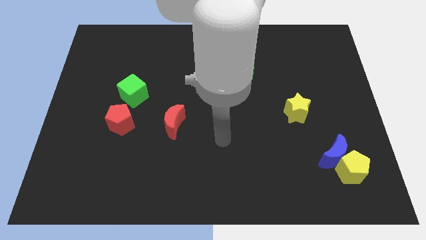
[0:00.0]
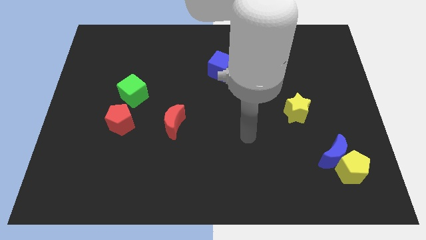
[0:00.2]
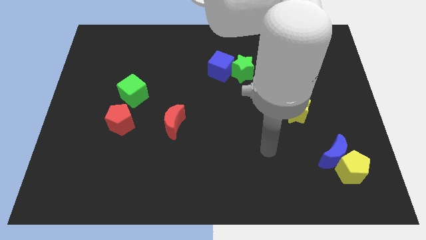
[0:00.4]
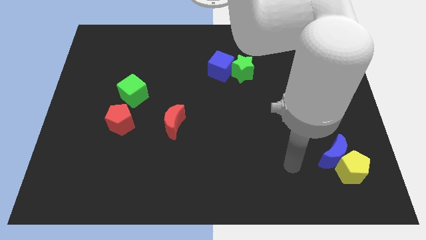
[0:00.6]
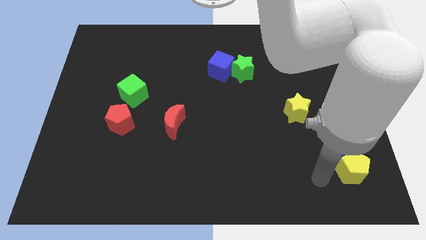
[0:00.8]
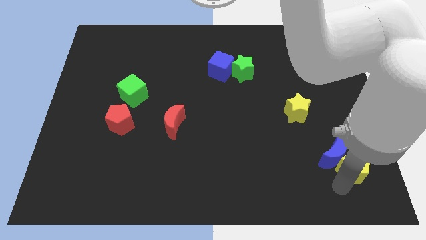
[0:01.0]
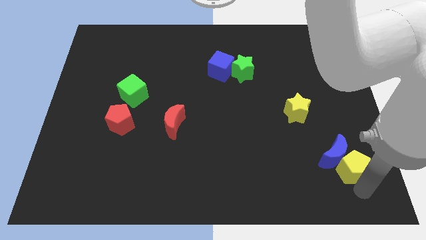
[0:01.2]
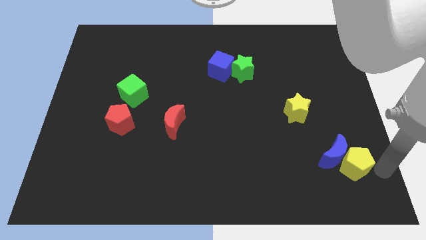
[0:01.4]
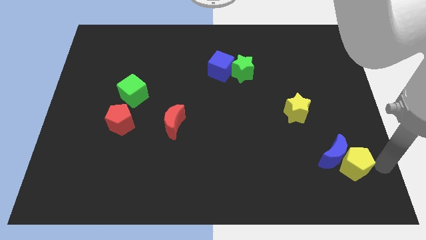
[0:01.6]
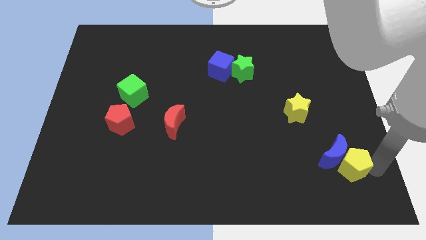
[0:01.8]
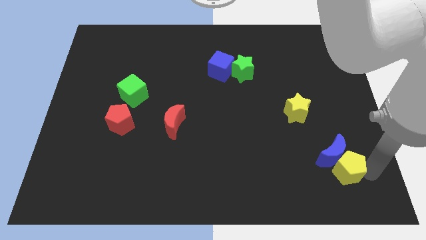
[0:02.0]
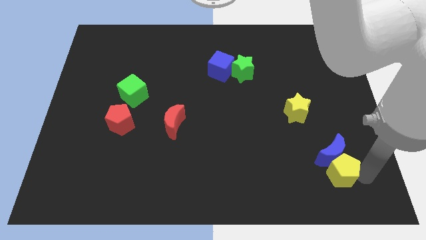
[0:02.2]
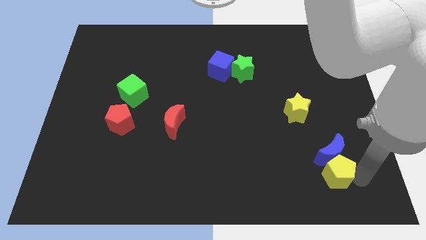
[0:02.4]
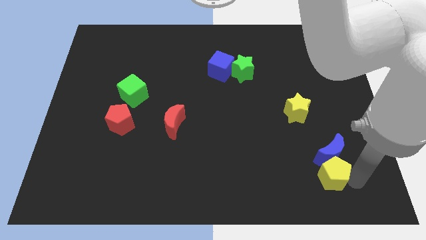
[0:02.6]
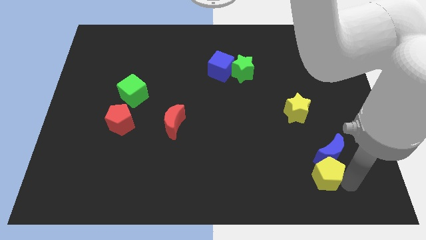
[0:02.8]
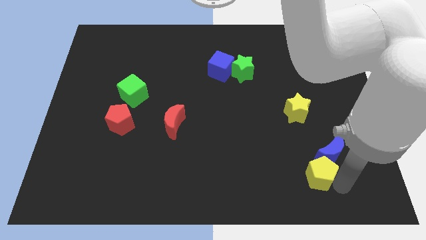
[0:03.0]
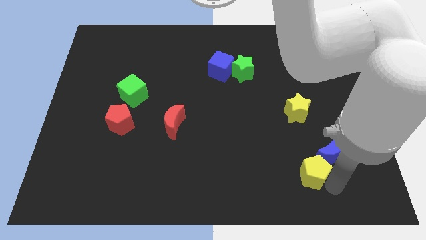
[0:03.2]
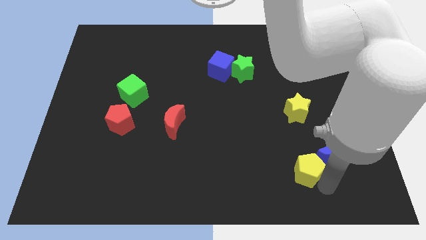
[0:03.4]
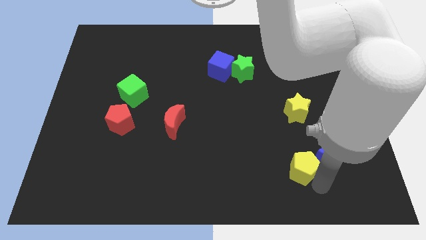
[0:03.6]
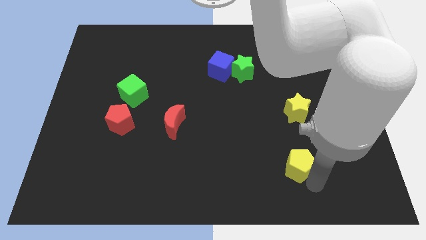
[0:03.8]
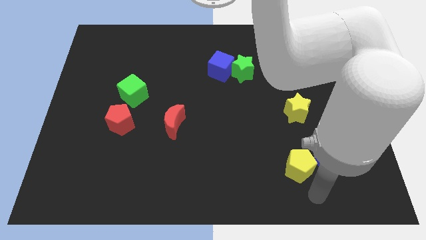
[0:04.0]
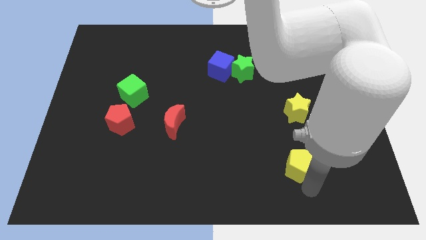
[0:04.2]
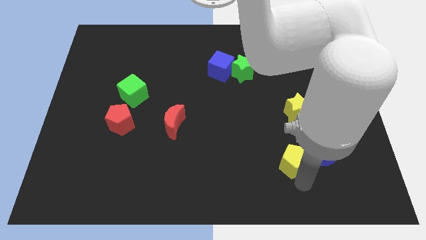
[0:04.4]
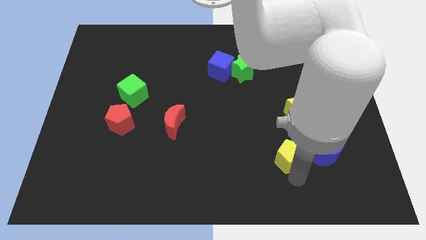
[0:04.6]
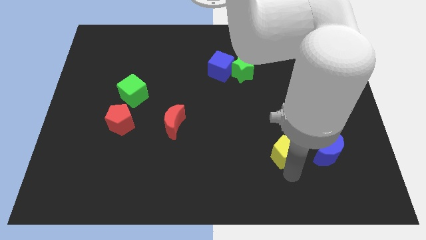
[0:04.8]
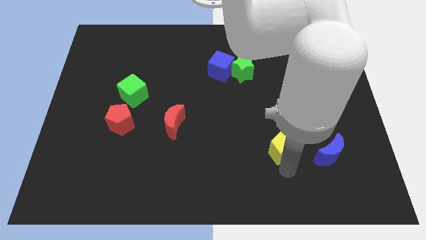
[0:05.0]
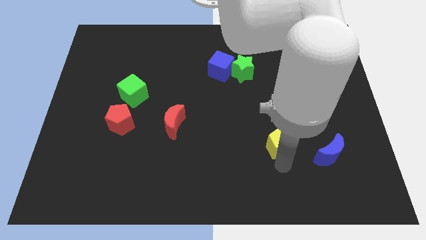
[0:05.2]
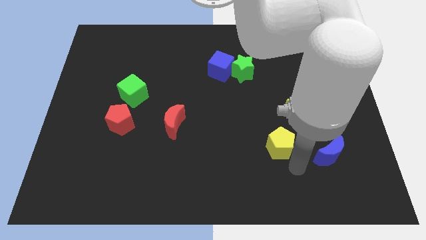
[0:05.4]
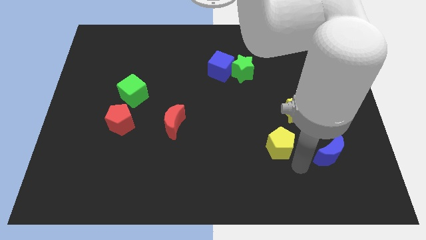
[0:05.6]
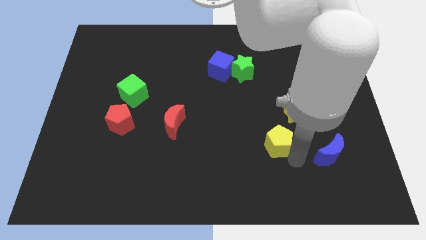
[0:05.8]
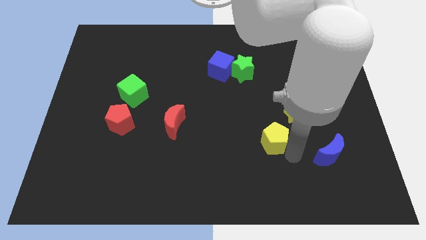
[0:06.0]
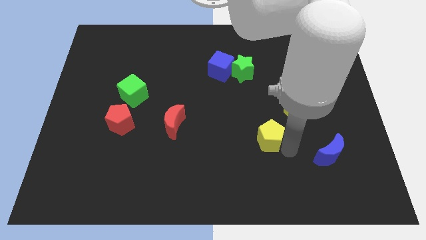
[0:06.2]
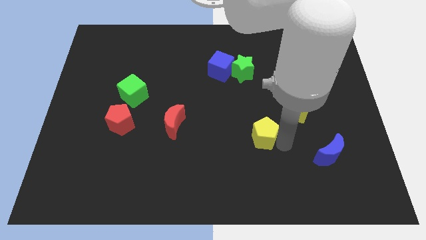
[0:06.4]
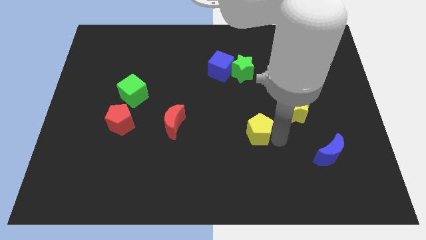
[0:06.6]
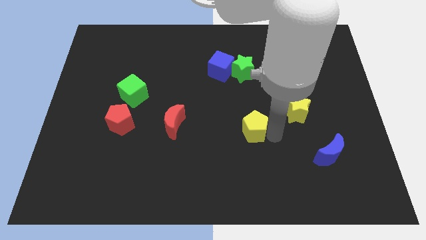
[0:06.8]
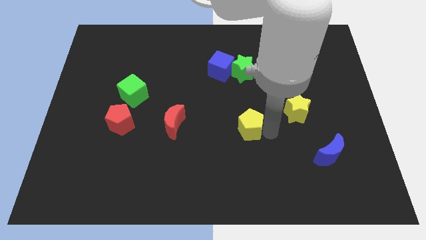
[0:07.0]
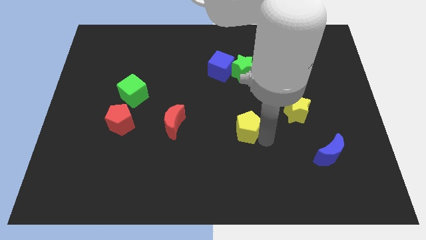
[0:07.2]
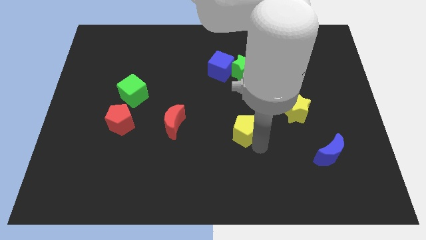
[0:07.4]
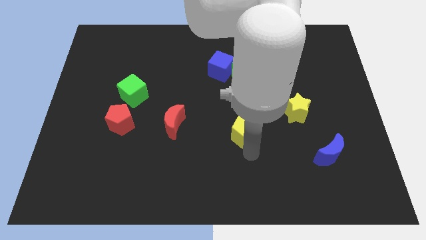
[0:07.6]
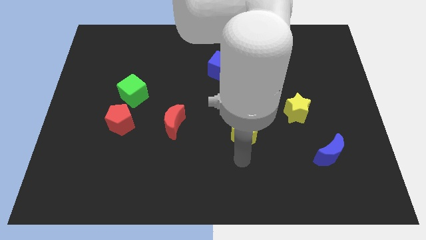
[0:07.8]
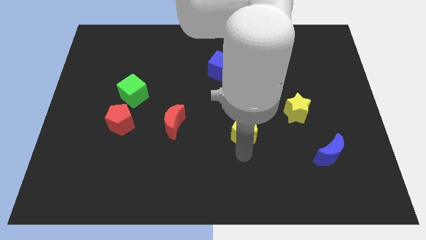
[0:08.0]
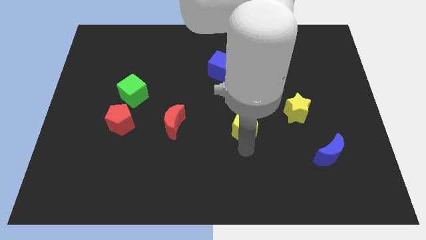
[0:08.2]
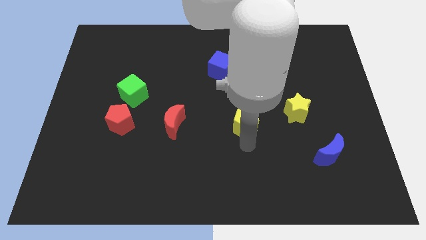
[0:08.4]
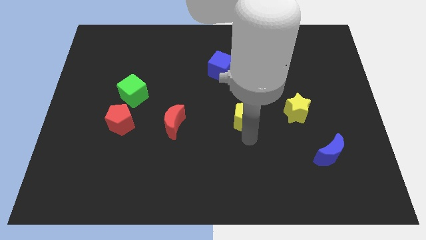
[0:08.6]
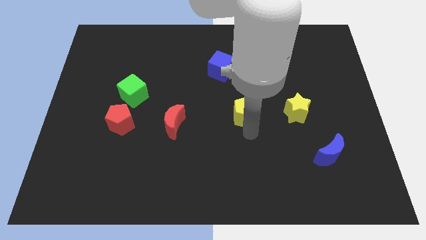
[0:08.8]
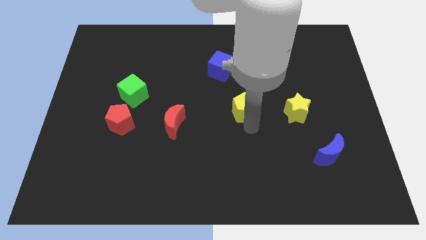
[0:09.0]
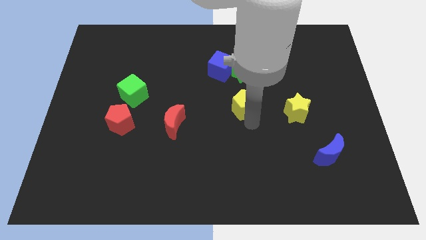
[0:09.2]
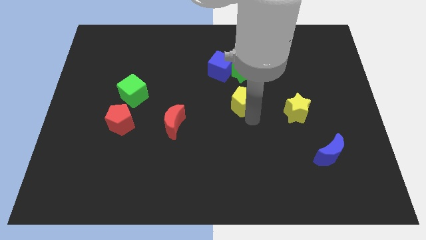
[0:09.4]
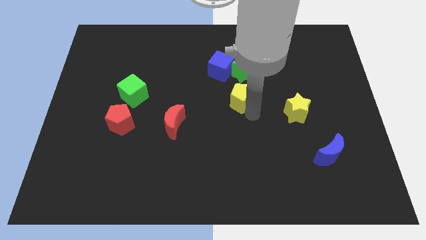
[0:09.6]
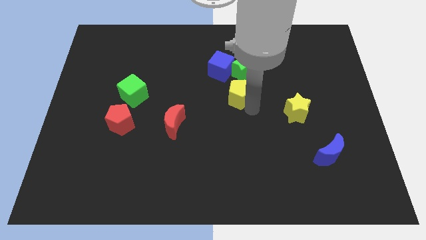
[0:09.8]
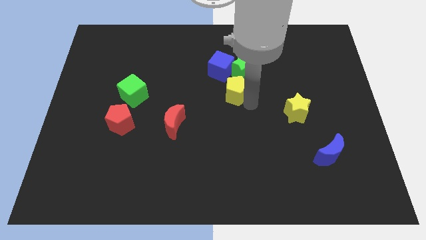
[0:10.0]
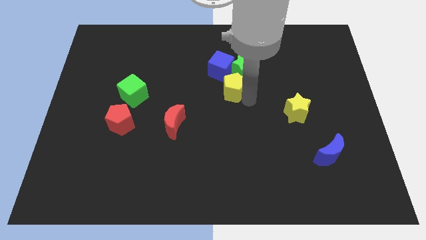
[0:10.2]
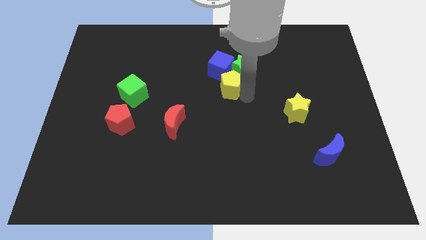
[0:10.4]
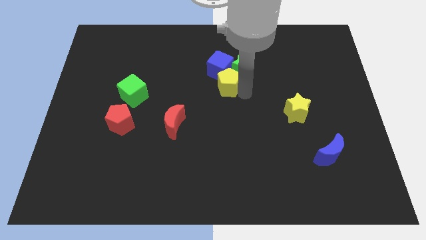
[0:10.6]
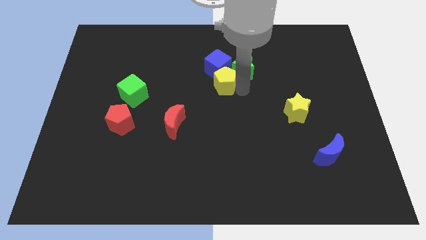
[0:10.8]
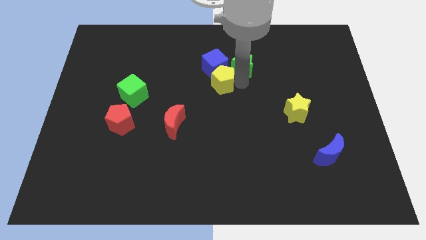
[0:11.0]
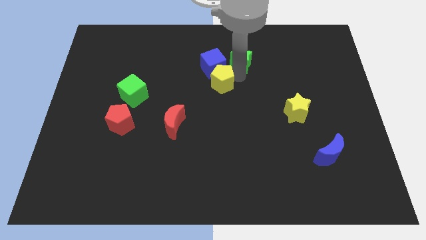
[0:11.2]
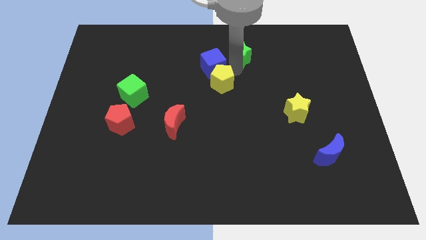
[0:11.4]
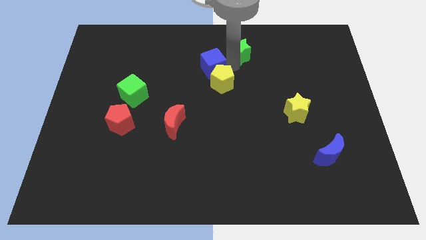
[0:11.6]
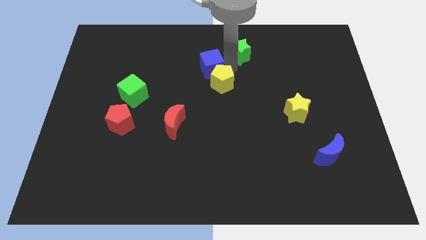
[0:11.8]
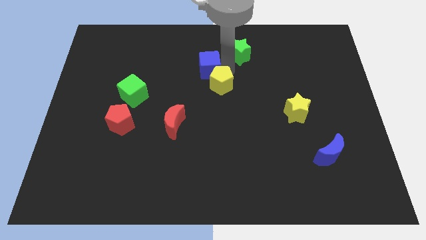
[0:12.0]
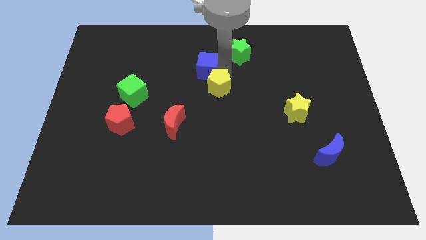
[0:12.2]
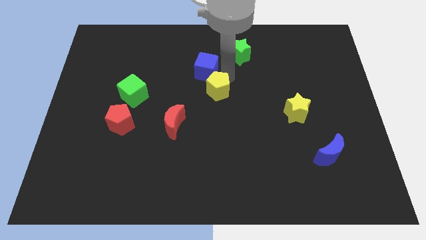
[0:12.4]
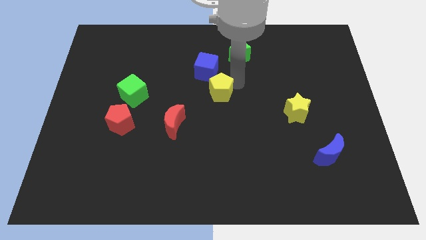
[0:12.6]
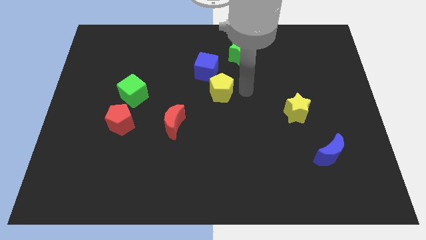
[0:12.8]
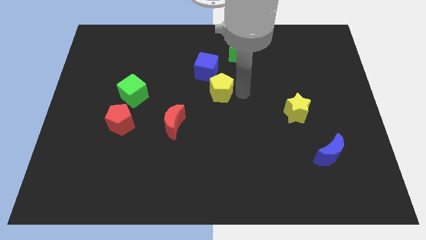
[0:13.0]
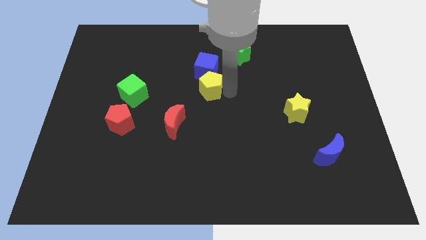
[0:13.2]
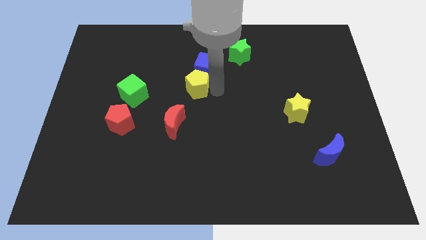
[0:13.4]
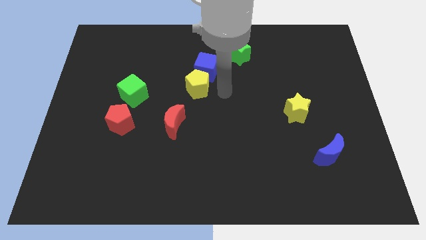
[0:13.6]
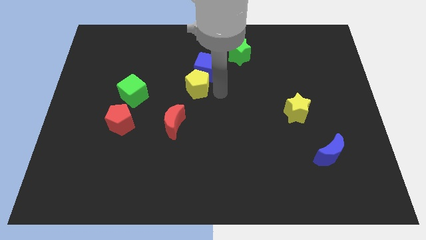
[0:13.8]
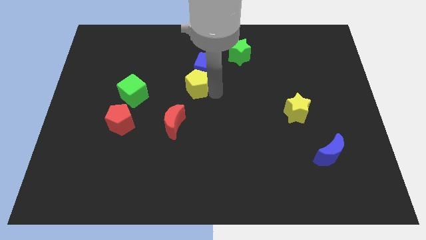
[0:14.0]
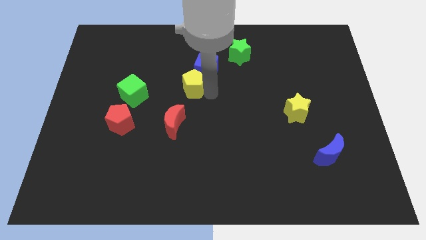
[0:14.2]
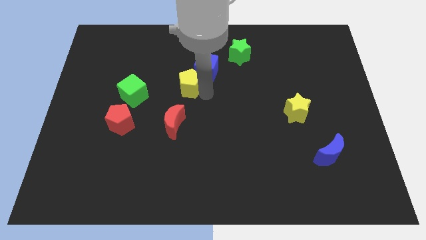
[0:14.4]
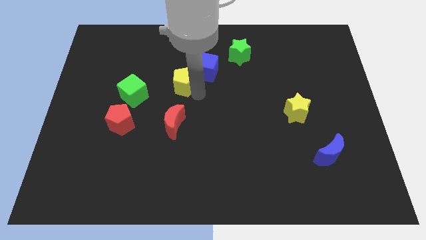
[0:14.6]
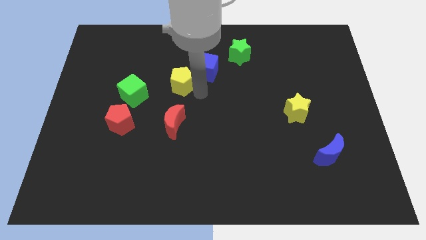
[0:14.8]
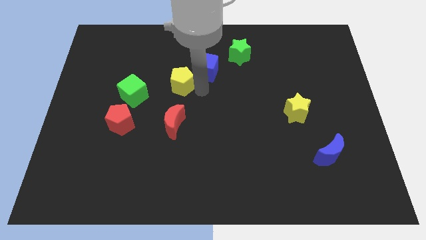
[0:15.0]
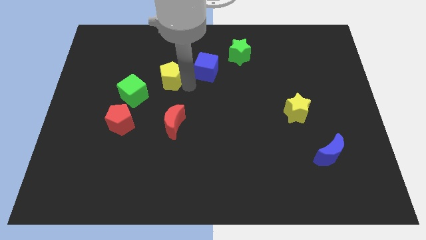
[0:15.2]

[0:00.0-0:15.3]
move the yellow pentagon diagonally up and to the right of the green cube
